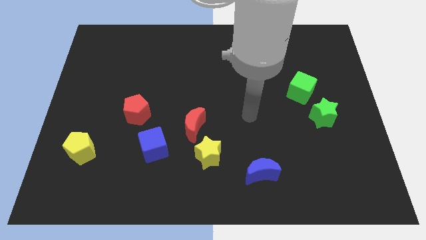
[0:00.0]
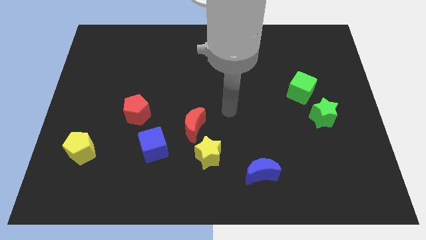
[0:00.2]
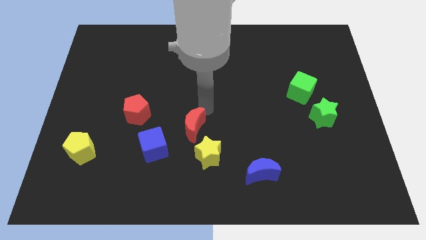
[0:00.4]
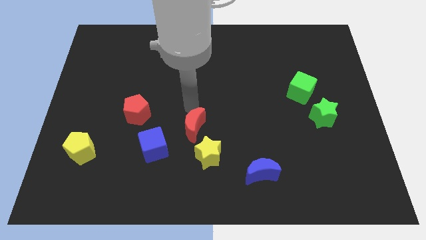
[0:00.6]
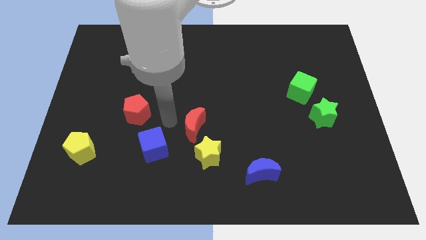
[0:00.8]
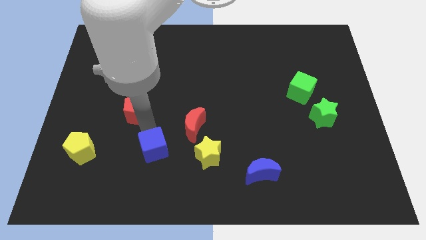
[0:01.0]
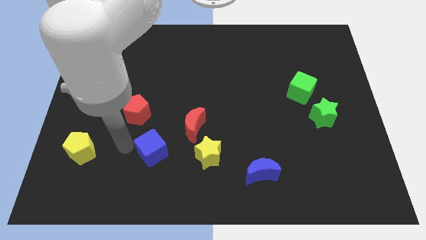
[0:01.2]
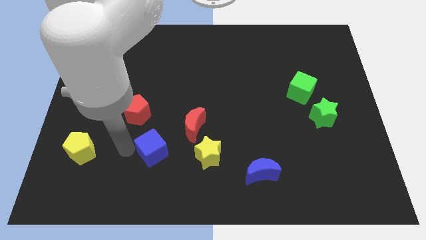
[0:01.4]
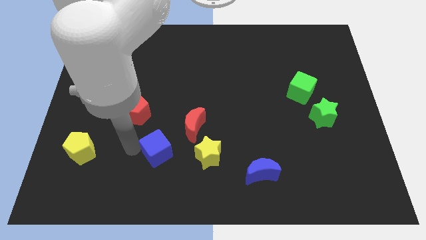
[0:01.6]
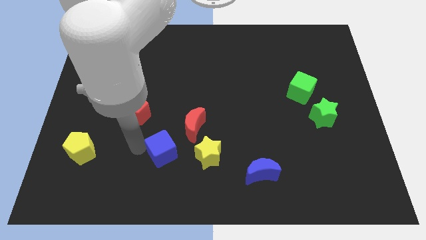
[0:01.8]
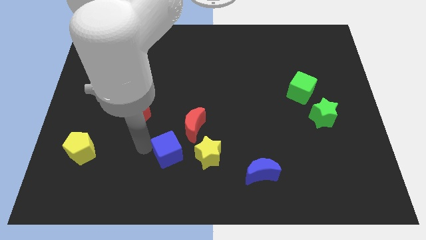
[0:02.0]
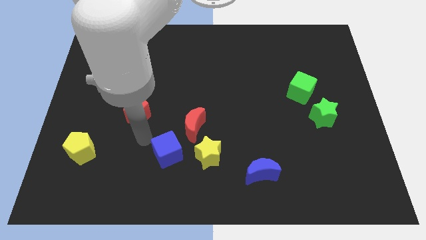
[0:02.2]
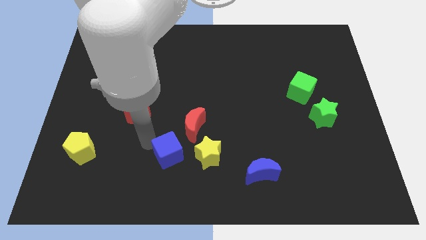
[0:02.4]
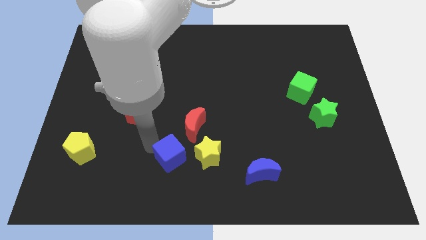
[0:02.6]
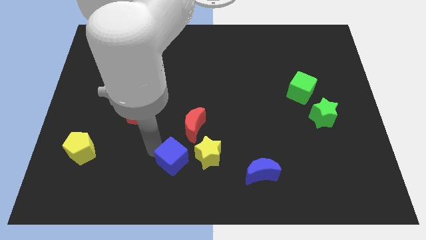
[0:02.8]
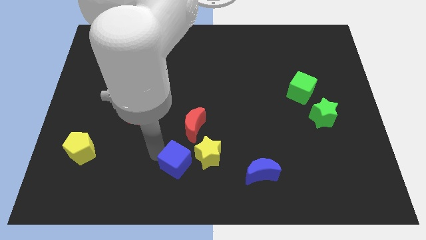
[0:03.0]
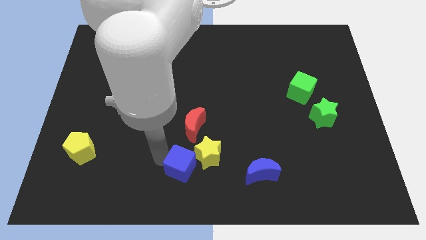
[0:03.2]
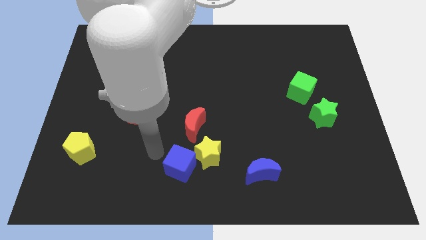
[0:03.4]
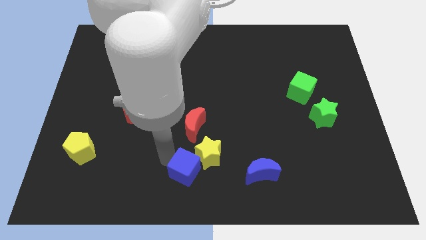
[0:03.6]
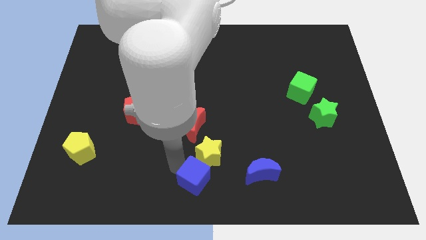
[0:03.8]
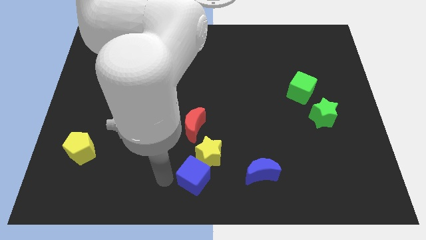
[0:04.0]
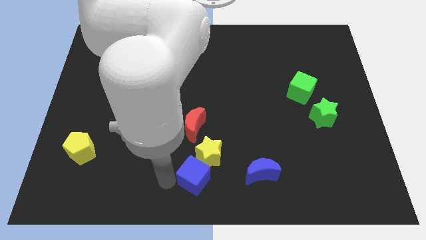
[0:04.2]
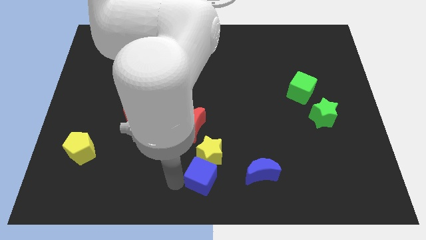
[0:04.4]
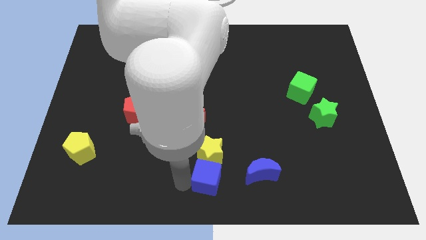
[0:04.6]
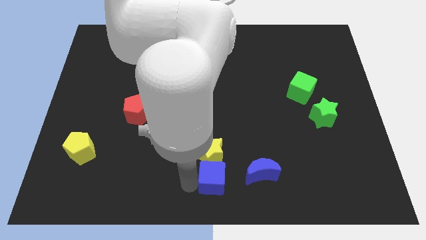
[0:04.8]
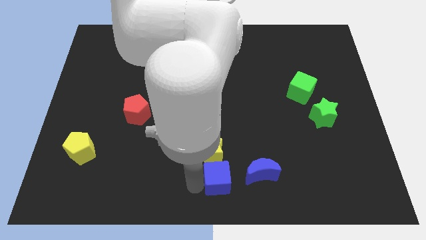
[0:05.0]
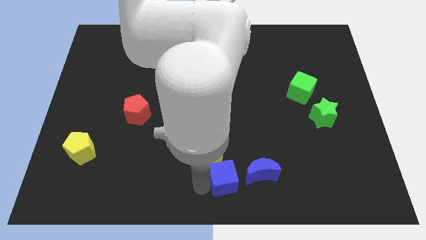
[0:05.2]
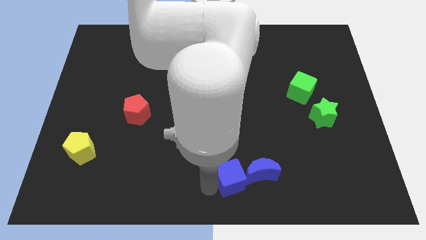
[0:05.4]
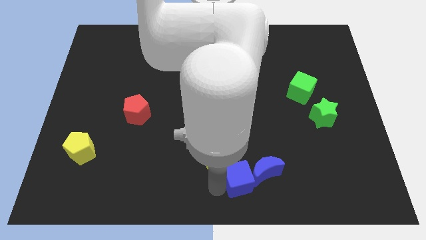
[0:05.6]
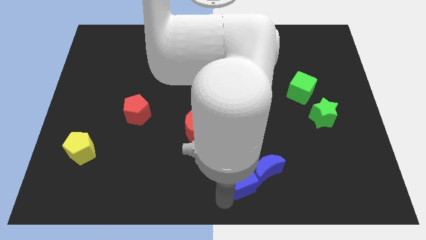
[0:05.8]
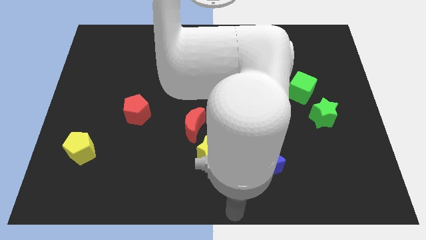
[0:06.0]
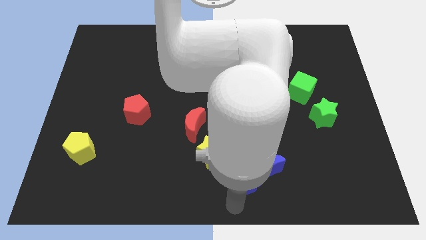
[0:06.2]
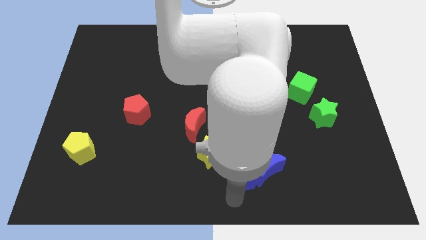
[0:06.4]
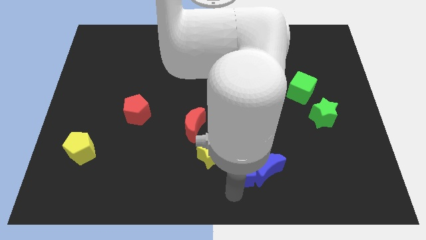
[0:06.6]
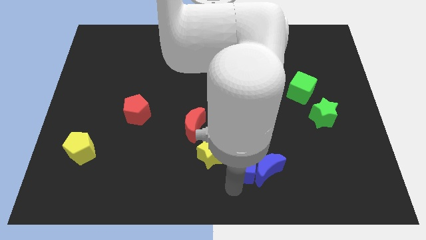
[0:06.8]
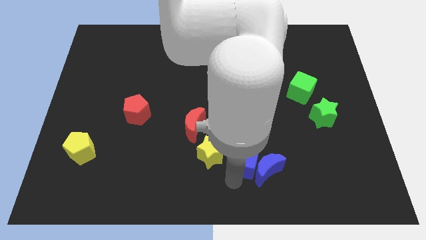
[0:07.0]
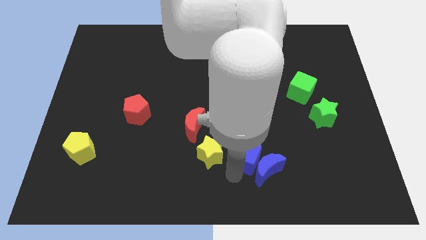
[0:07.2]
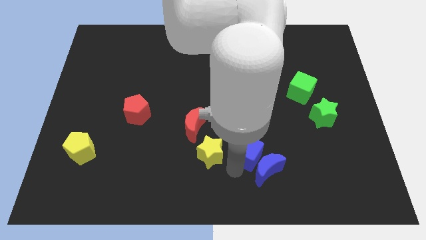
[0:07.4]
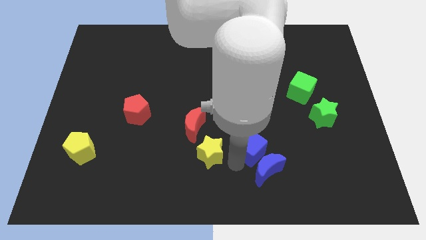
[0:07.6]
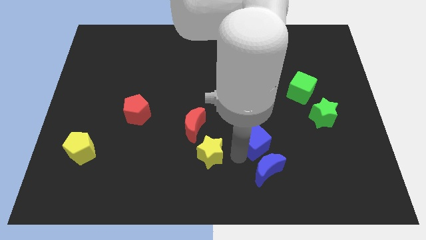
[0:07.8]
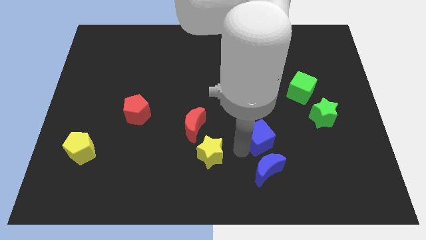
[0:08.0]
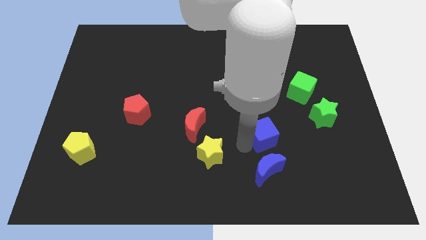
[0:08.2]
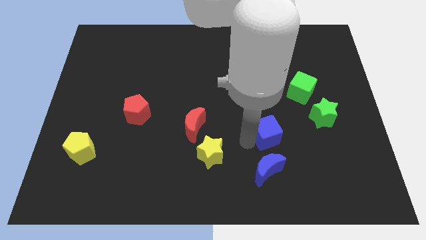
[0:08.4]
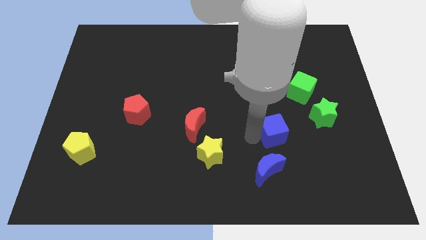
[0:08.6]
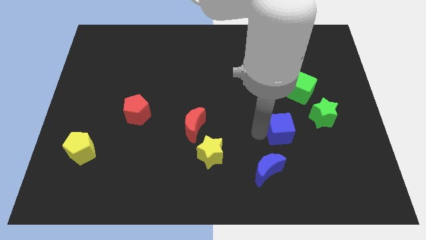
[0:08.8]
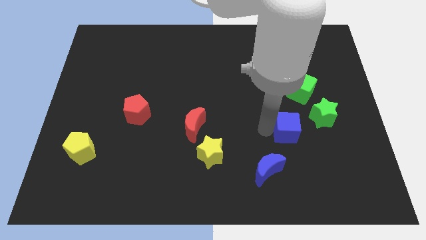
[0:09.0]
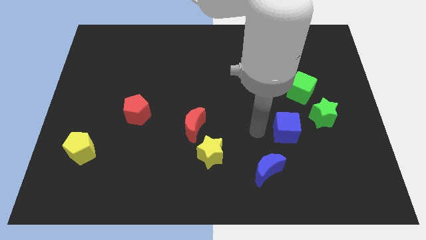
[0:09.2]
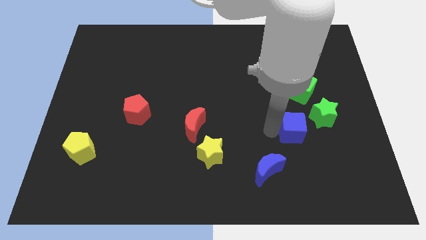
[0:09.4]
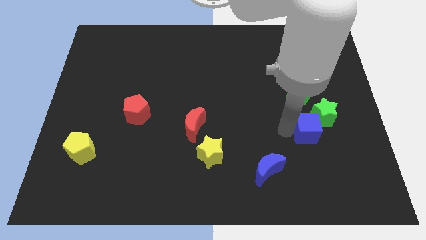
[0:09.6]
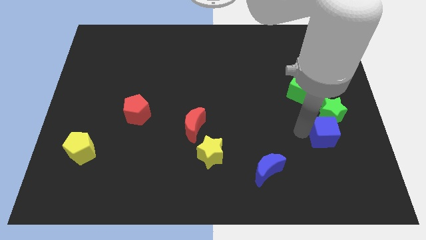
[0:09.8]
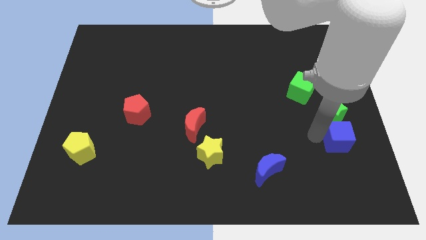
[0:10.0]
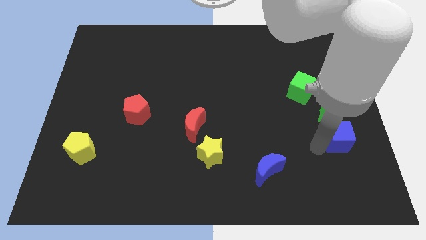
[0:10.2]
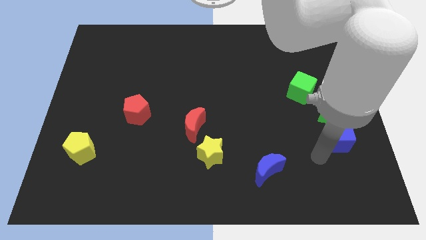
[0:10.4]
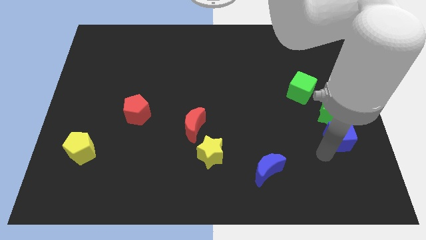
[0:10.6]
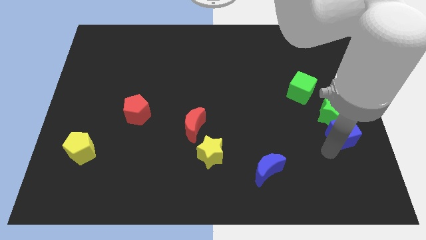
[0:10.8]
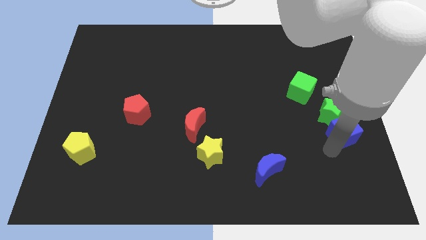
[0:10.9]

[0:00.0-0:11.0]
put the blue cube to the center right
